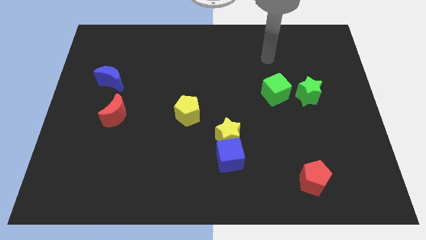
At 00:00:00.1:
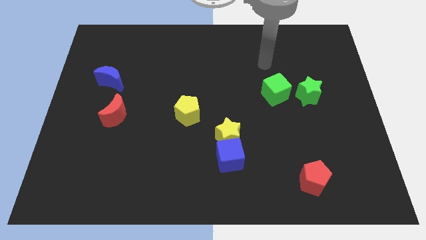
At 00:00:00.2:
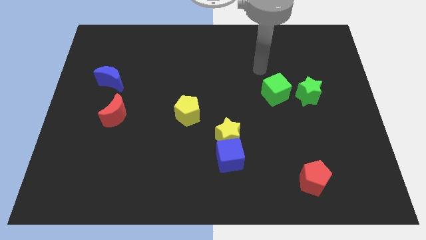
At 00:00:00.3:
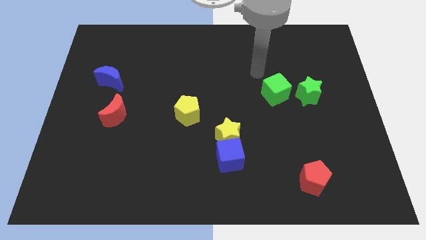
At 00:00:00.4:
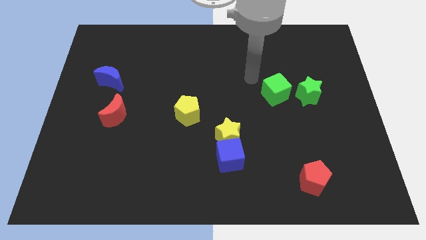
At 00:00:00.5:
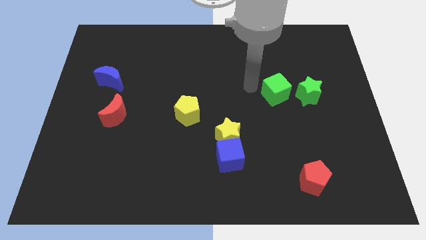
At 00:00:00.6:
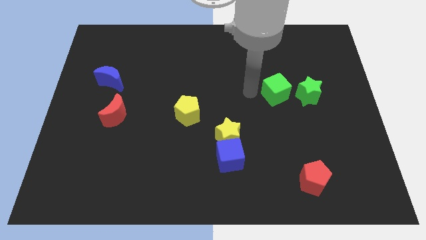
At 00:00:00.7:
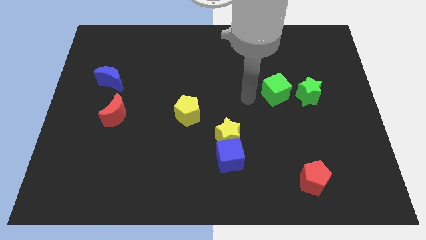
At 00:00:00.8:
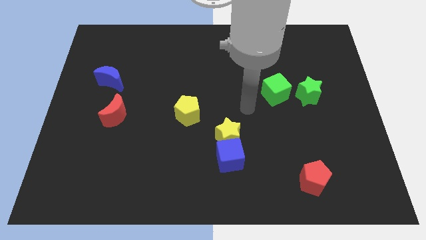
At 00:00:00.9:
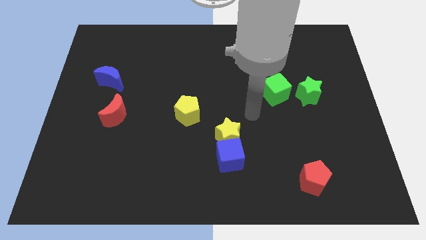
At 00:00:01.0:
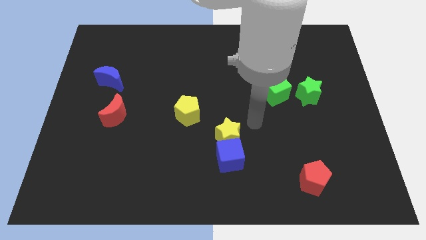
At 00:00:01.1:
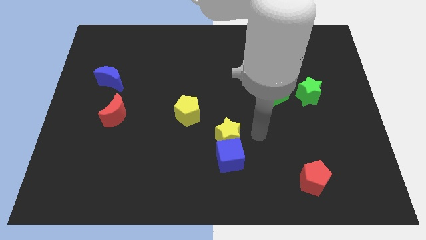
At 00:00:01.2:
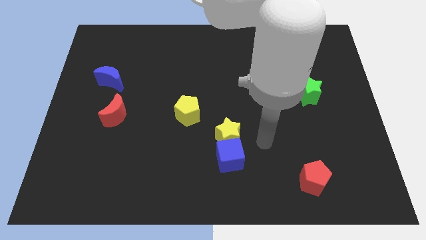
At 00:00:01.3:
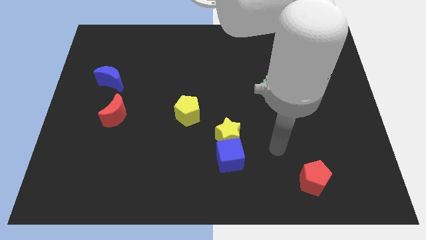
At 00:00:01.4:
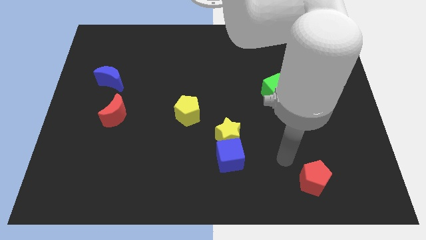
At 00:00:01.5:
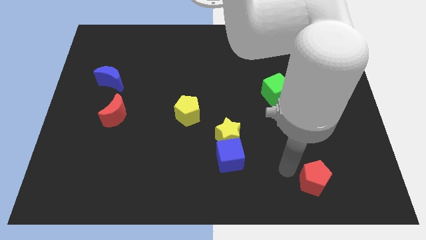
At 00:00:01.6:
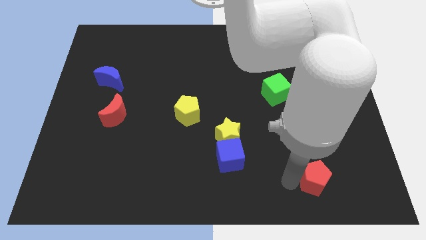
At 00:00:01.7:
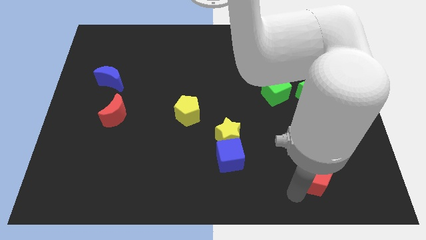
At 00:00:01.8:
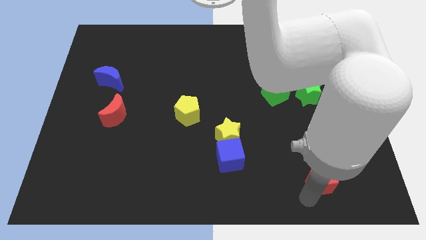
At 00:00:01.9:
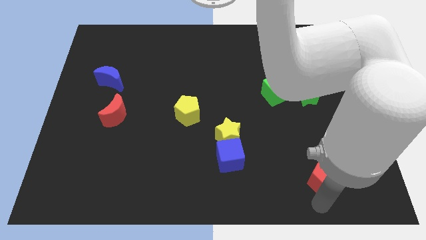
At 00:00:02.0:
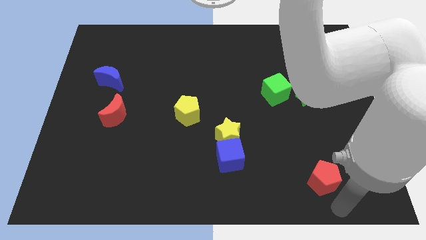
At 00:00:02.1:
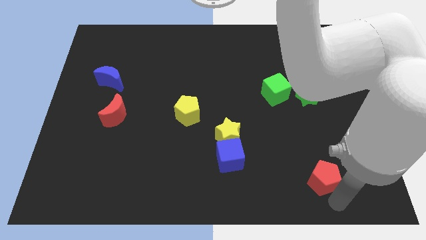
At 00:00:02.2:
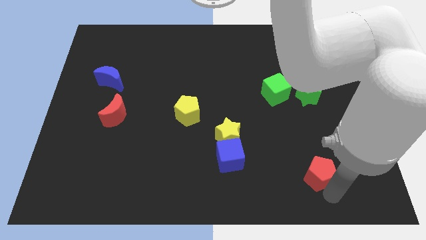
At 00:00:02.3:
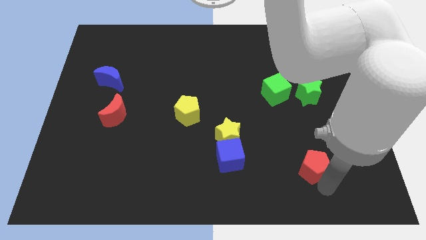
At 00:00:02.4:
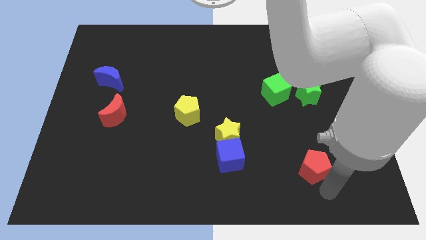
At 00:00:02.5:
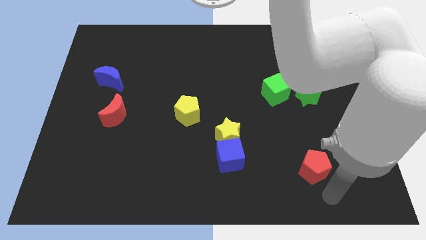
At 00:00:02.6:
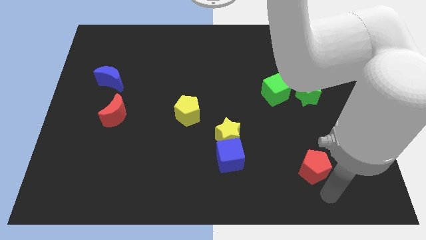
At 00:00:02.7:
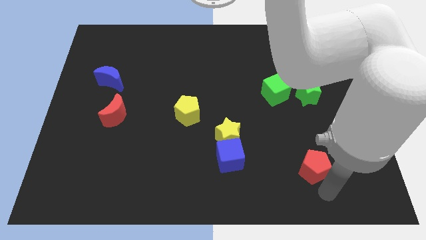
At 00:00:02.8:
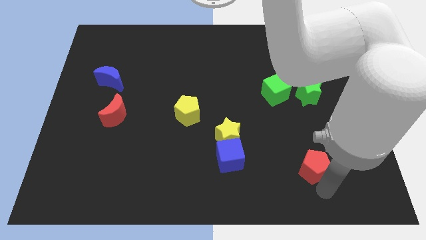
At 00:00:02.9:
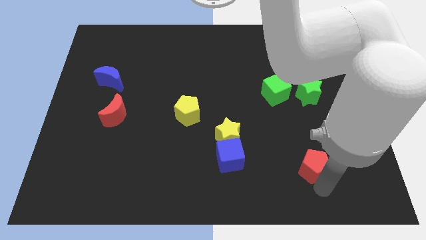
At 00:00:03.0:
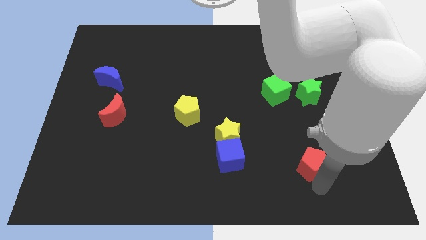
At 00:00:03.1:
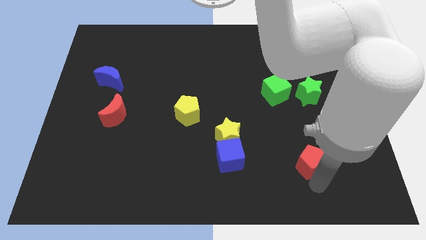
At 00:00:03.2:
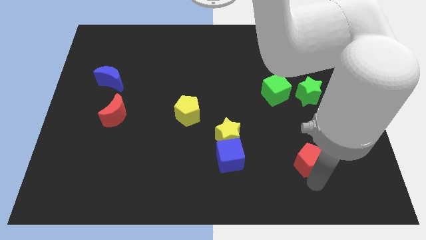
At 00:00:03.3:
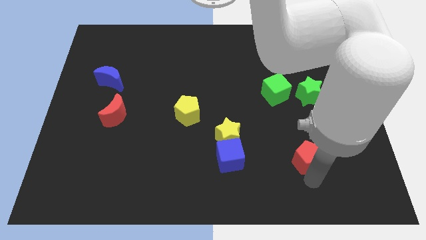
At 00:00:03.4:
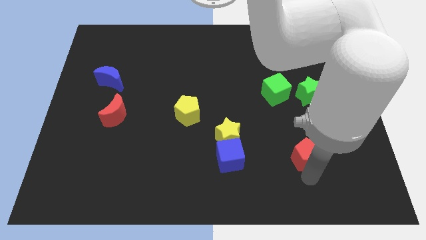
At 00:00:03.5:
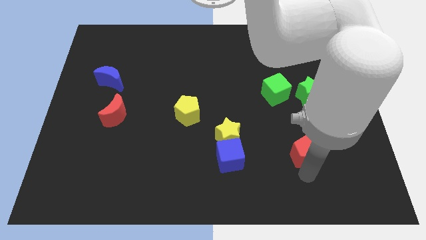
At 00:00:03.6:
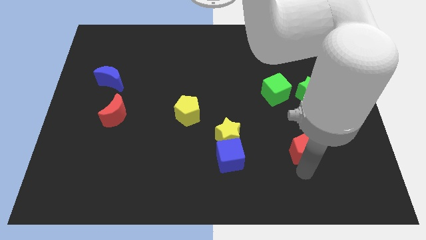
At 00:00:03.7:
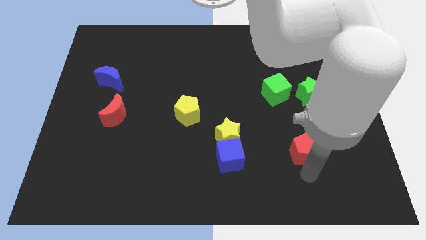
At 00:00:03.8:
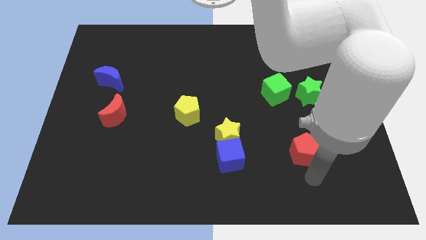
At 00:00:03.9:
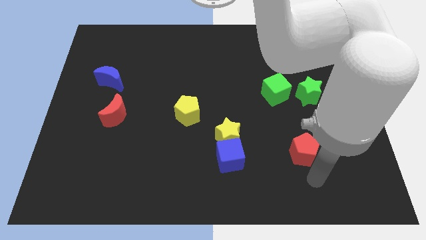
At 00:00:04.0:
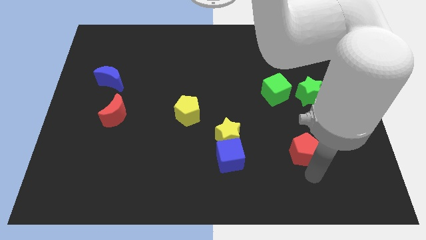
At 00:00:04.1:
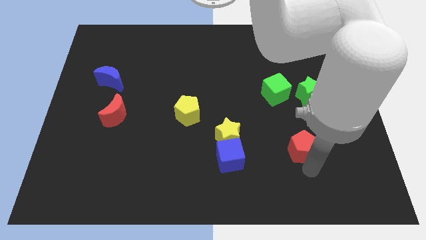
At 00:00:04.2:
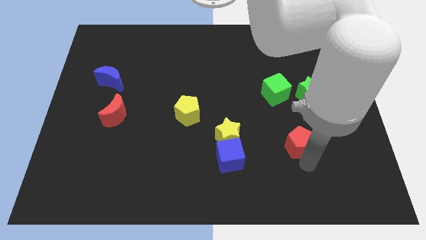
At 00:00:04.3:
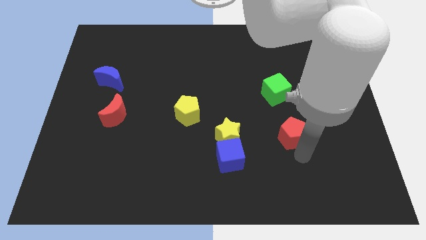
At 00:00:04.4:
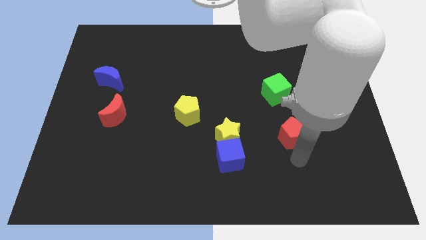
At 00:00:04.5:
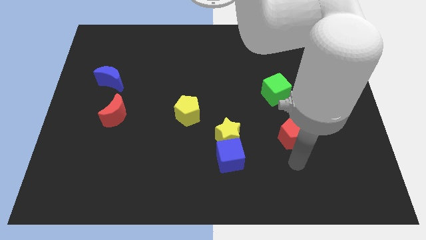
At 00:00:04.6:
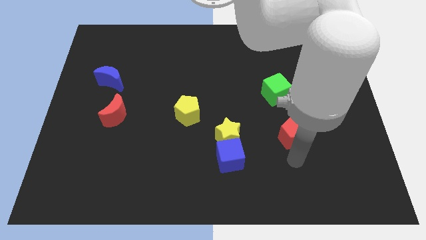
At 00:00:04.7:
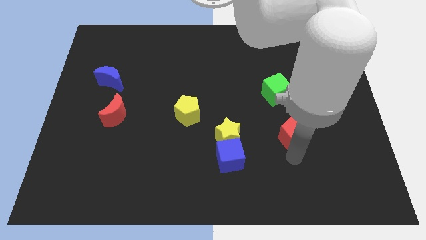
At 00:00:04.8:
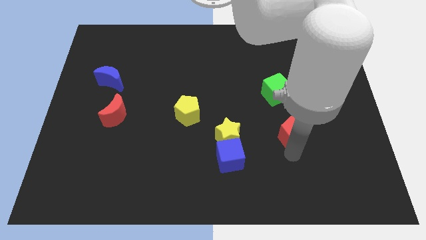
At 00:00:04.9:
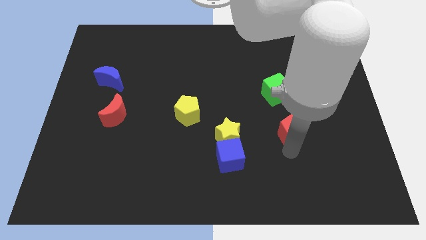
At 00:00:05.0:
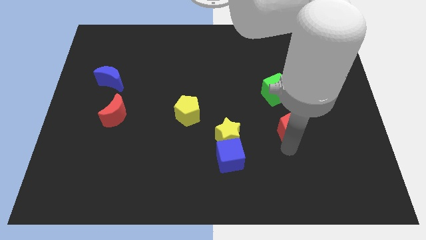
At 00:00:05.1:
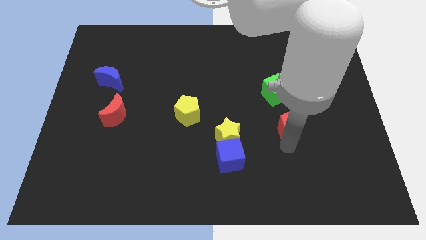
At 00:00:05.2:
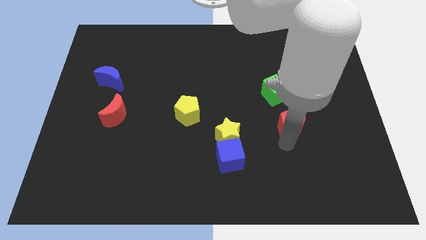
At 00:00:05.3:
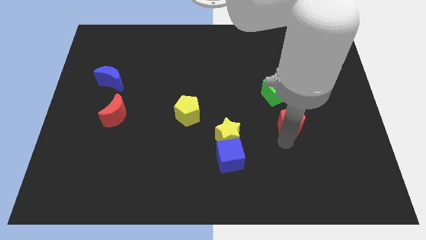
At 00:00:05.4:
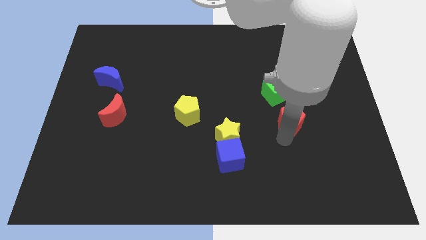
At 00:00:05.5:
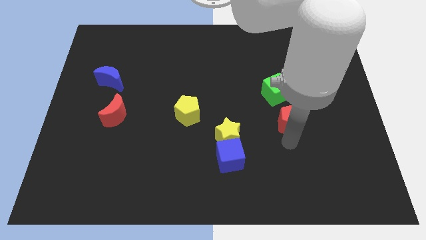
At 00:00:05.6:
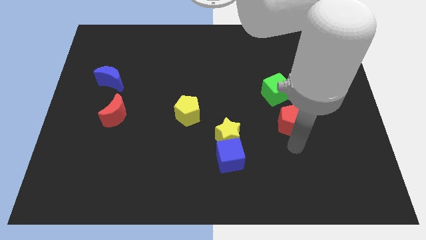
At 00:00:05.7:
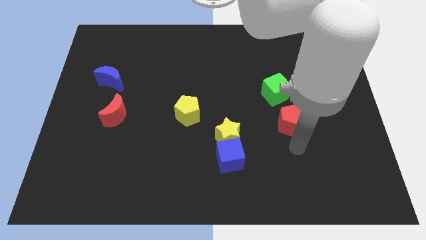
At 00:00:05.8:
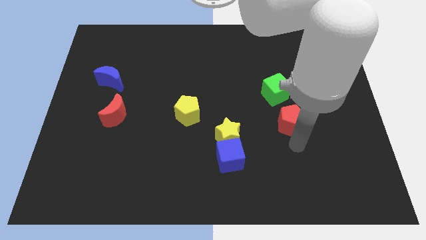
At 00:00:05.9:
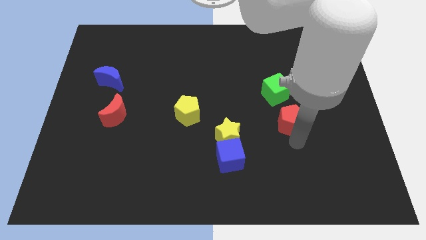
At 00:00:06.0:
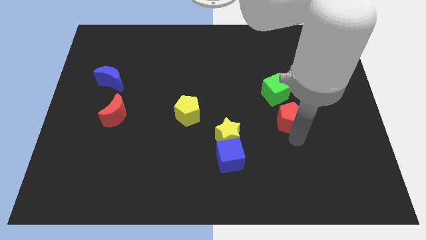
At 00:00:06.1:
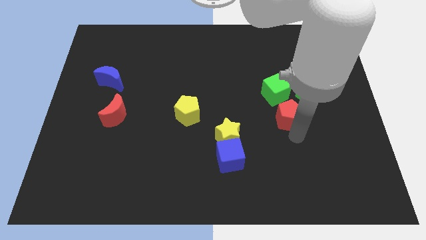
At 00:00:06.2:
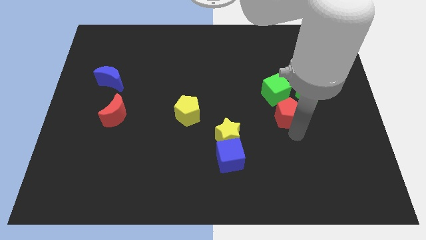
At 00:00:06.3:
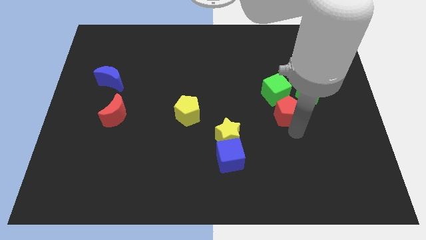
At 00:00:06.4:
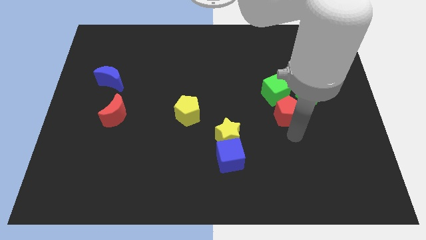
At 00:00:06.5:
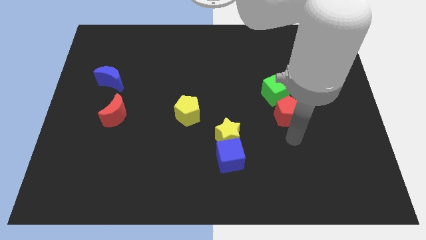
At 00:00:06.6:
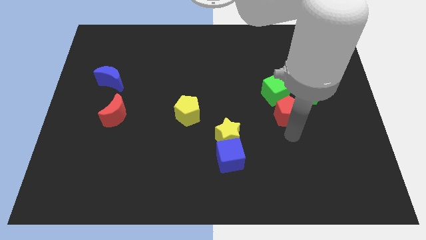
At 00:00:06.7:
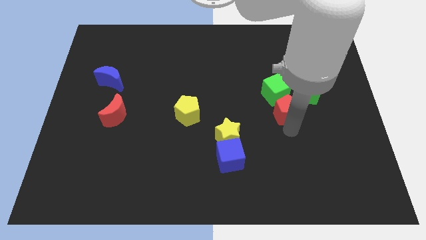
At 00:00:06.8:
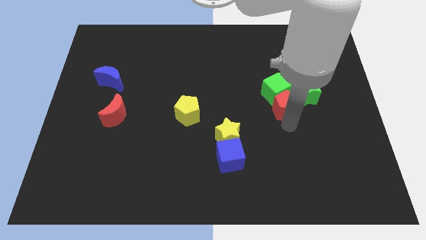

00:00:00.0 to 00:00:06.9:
move the red pentagon next to the green cube

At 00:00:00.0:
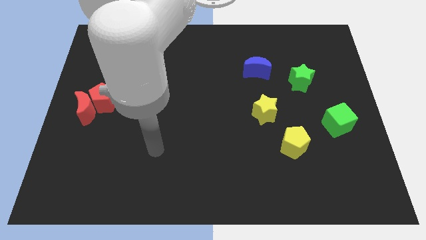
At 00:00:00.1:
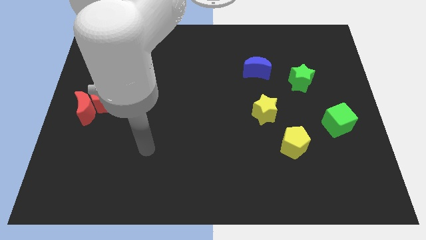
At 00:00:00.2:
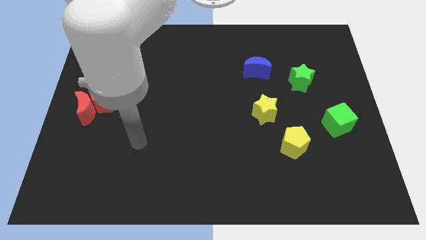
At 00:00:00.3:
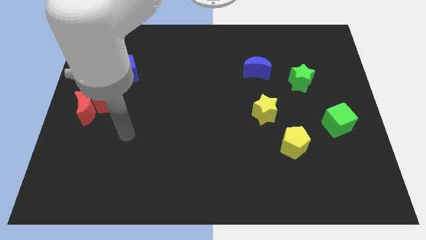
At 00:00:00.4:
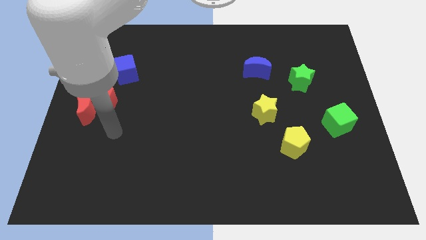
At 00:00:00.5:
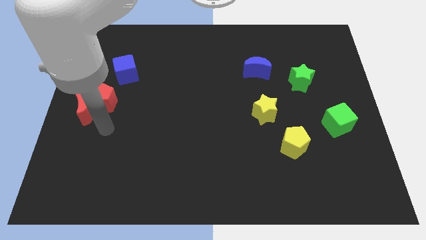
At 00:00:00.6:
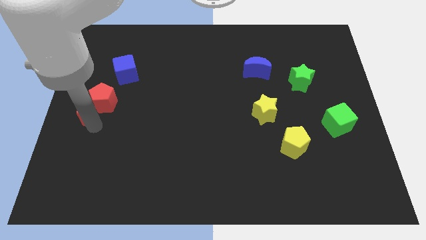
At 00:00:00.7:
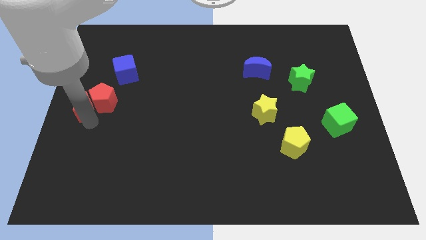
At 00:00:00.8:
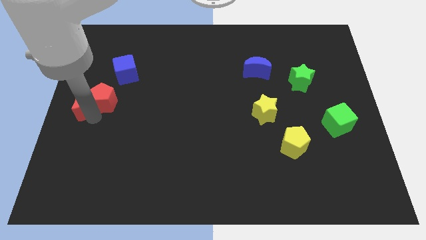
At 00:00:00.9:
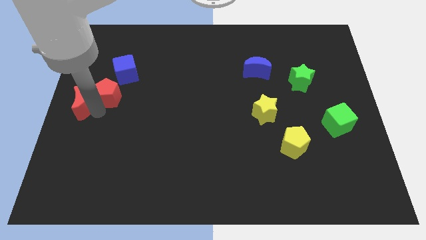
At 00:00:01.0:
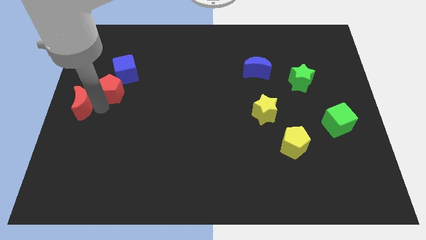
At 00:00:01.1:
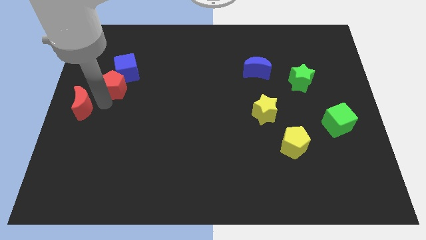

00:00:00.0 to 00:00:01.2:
move the red pentagon close to the blue cube
